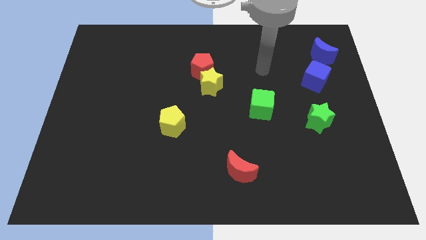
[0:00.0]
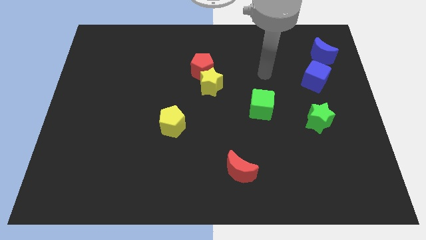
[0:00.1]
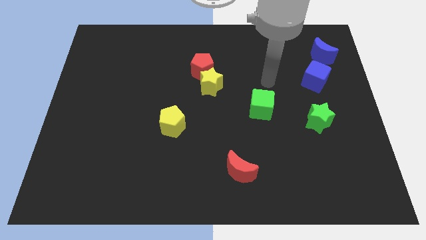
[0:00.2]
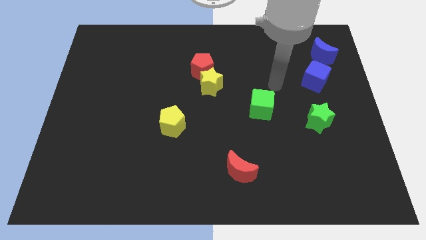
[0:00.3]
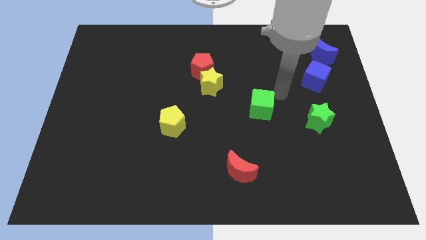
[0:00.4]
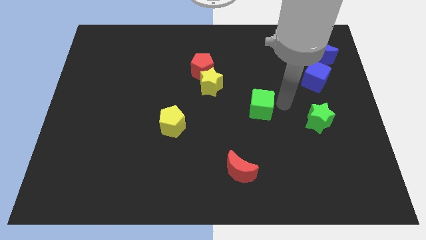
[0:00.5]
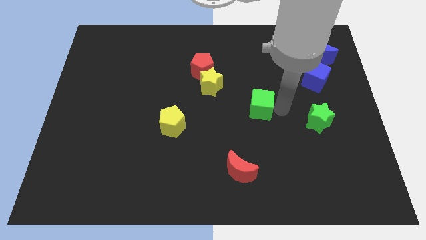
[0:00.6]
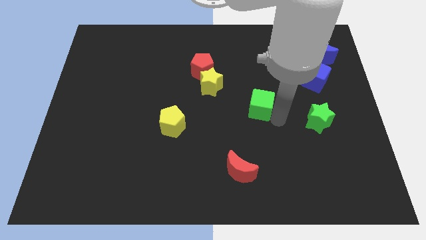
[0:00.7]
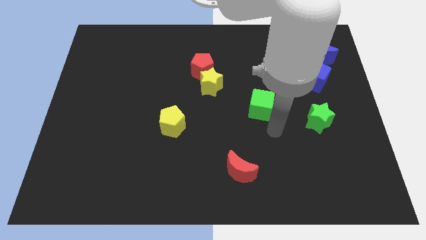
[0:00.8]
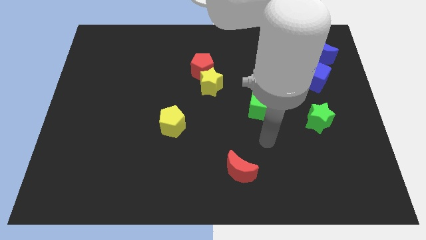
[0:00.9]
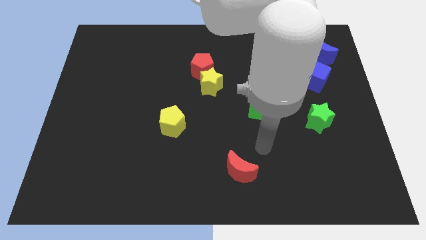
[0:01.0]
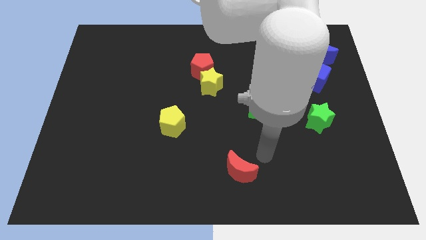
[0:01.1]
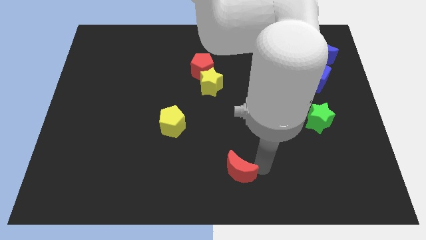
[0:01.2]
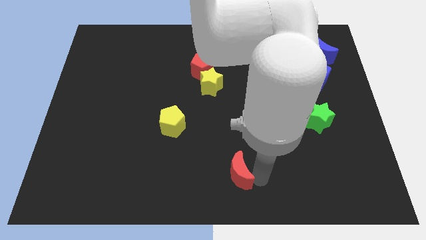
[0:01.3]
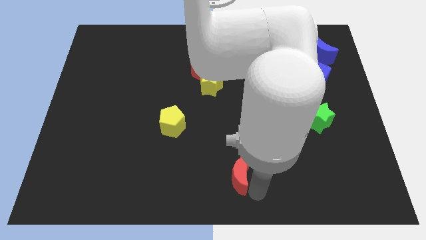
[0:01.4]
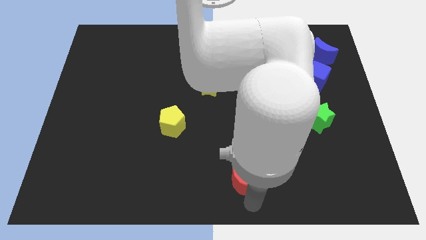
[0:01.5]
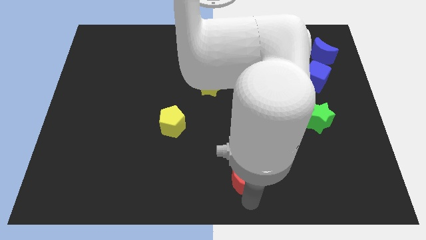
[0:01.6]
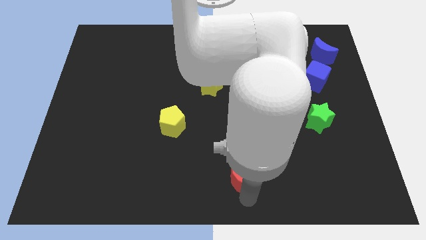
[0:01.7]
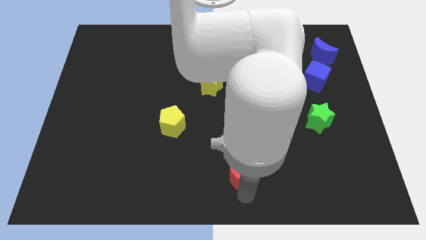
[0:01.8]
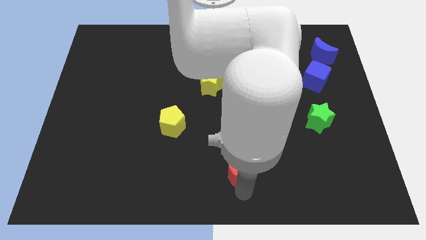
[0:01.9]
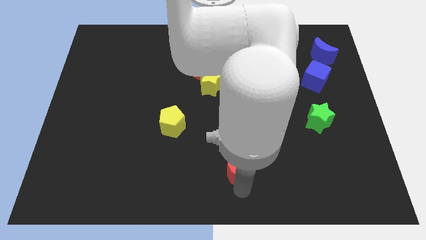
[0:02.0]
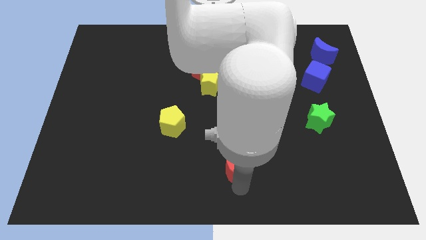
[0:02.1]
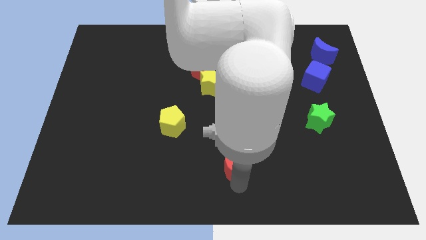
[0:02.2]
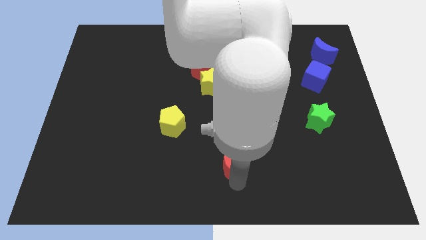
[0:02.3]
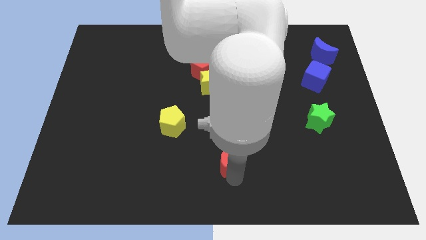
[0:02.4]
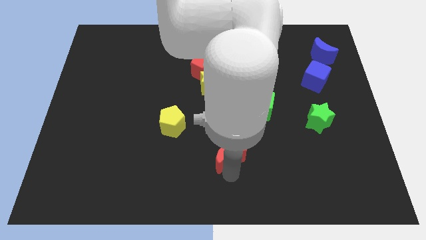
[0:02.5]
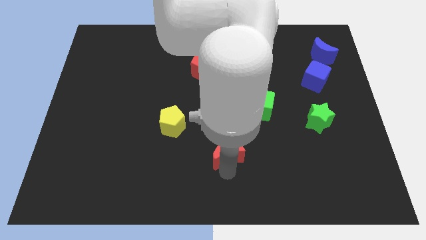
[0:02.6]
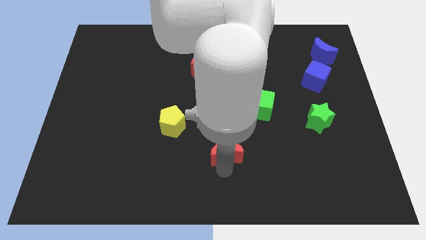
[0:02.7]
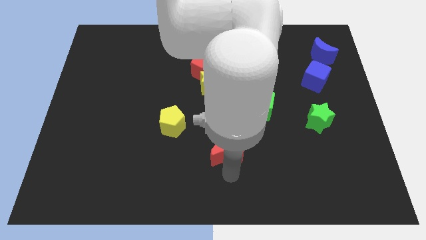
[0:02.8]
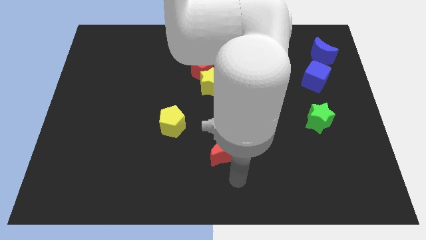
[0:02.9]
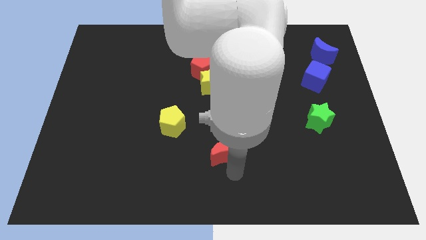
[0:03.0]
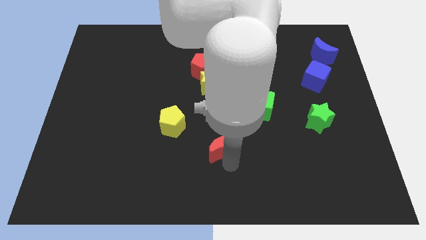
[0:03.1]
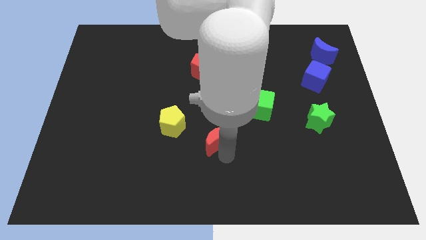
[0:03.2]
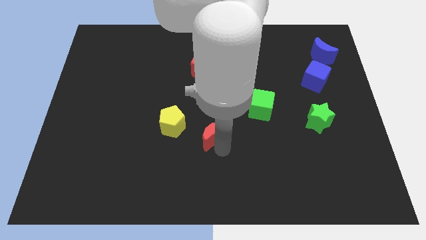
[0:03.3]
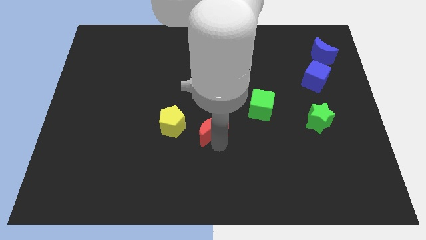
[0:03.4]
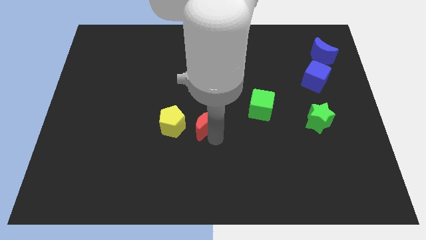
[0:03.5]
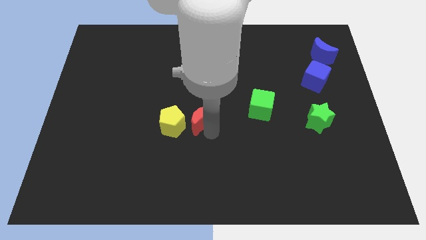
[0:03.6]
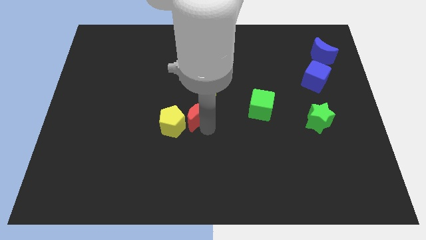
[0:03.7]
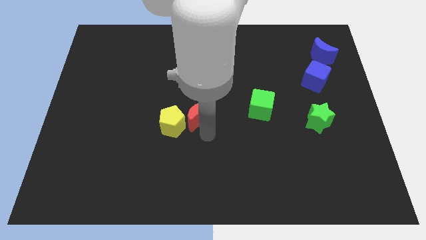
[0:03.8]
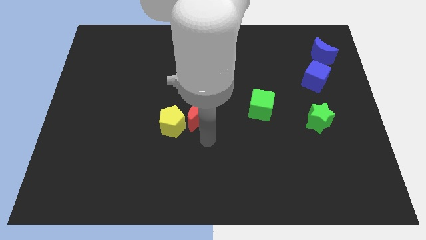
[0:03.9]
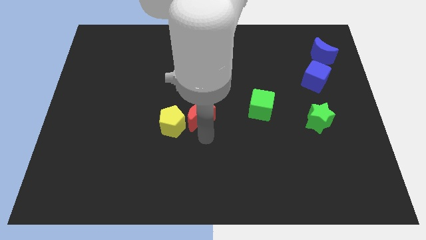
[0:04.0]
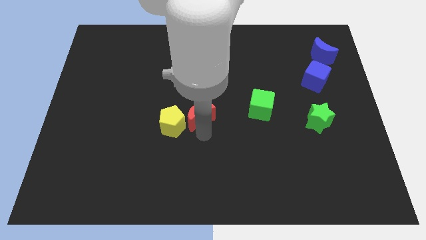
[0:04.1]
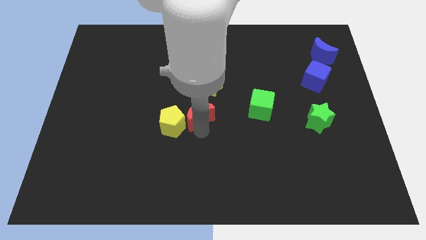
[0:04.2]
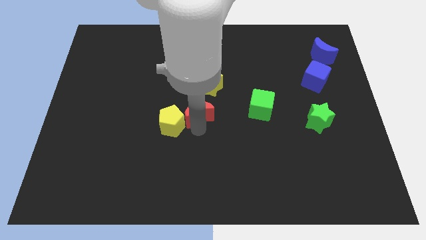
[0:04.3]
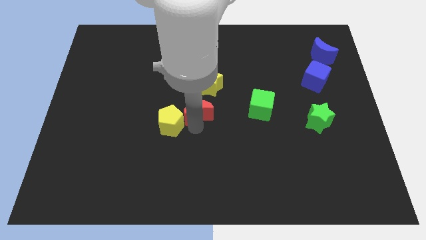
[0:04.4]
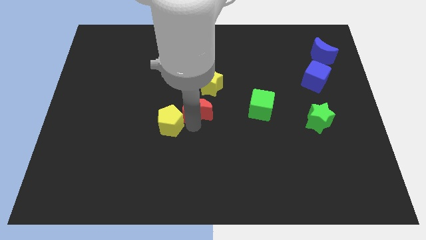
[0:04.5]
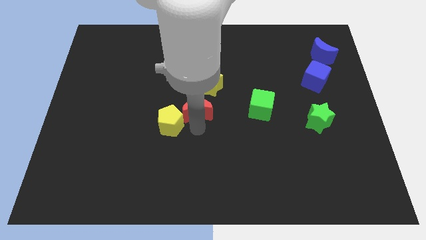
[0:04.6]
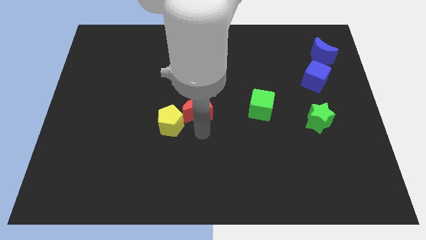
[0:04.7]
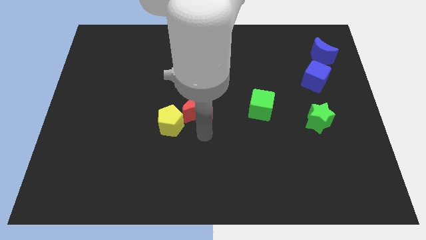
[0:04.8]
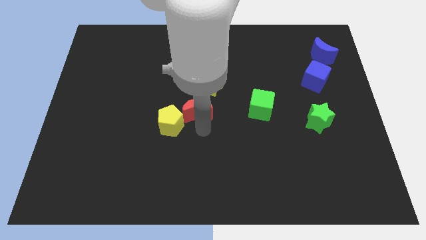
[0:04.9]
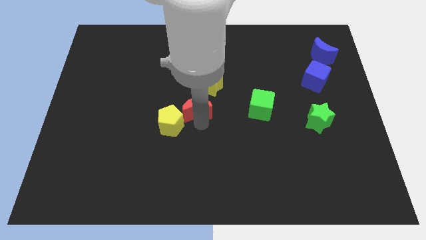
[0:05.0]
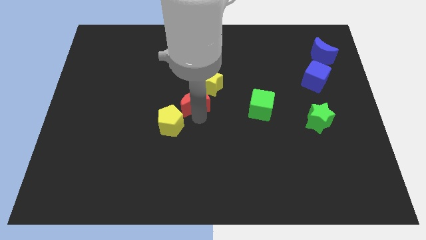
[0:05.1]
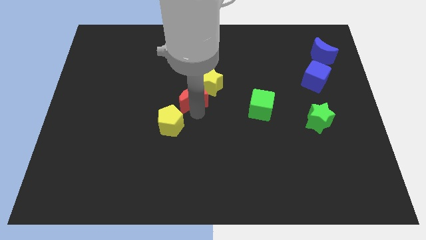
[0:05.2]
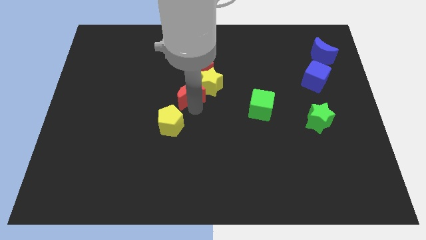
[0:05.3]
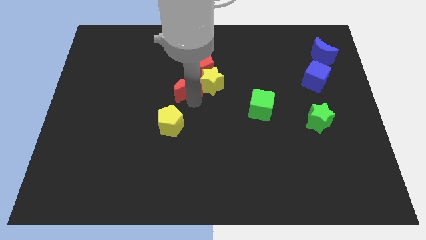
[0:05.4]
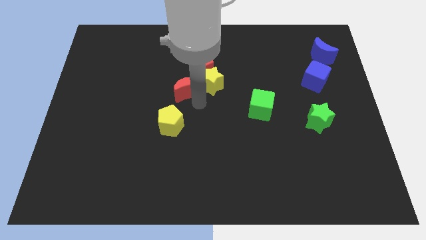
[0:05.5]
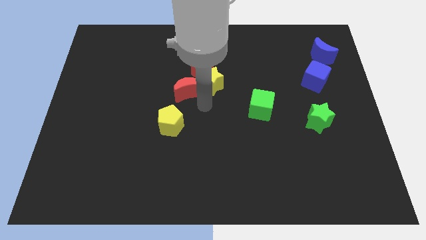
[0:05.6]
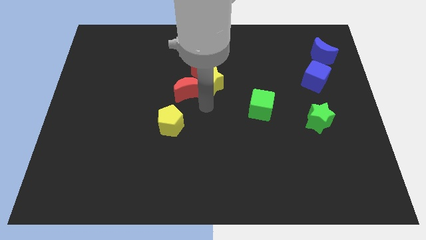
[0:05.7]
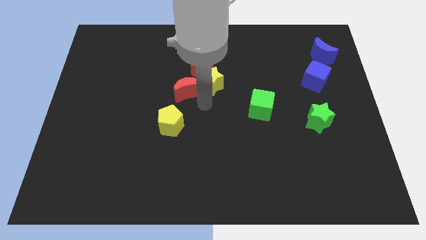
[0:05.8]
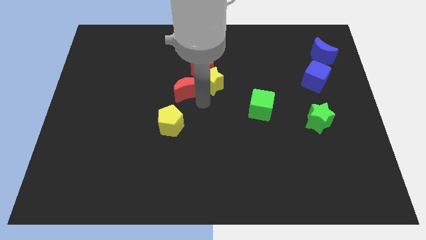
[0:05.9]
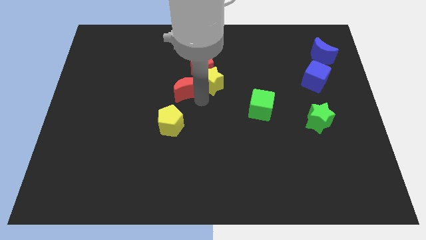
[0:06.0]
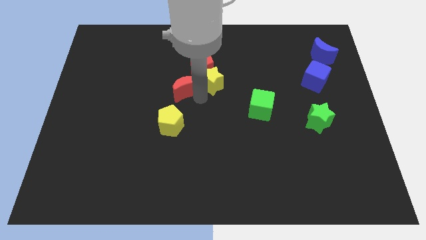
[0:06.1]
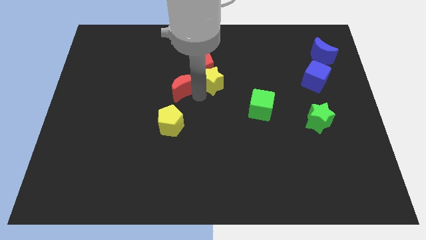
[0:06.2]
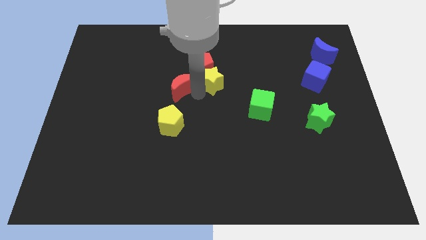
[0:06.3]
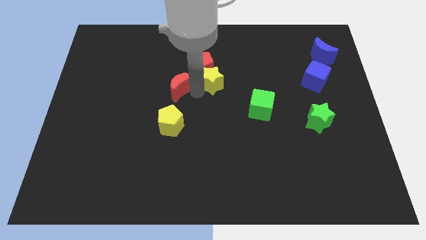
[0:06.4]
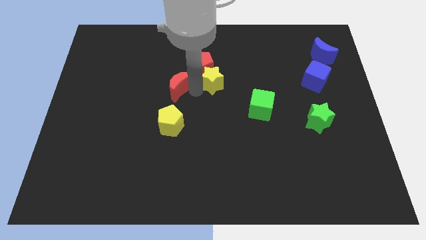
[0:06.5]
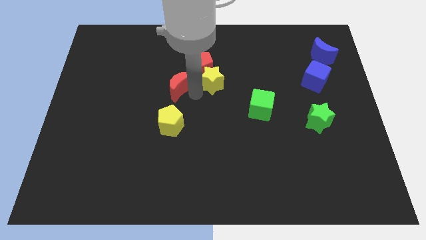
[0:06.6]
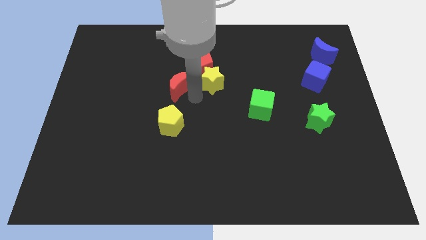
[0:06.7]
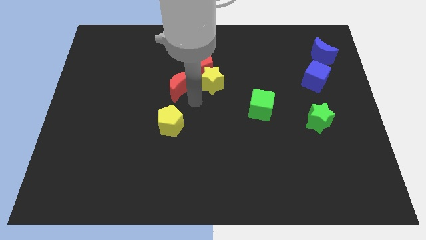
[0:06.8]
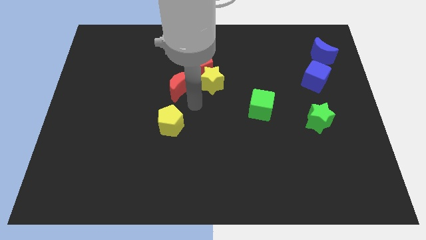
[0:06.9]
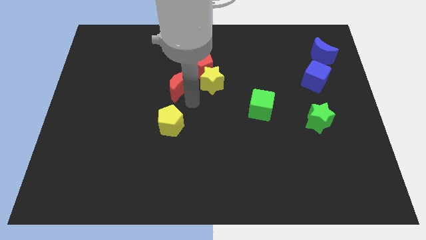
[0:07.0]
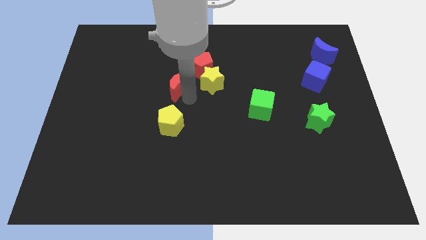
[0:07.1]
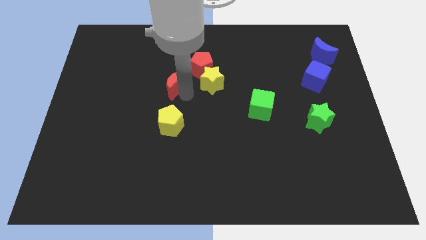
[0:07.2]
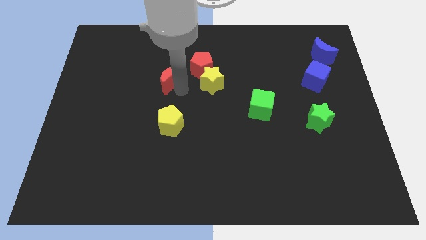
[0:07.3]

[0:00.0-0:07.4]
put the red moon to the left of the red pentagon
